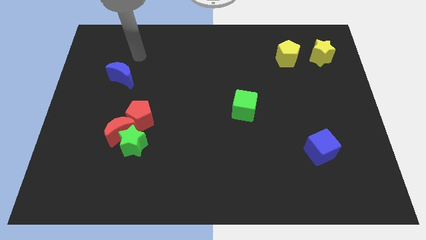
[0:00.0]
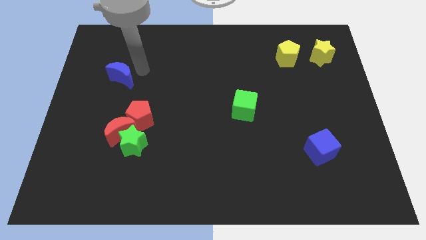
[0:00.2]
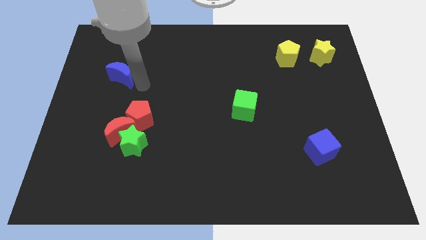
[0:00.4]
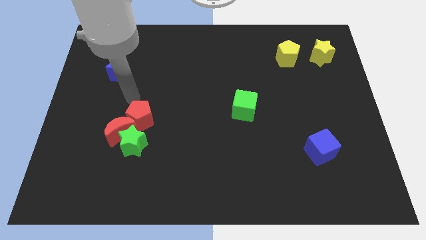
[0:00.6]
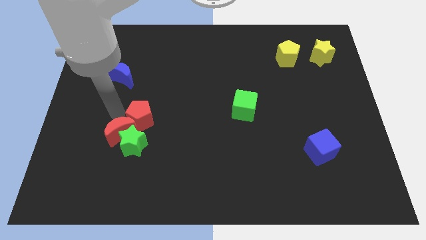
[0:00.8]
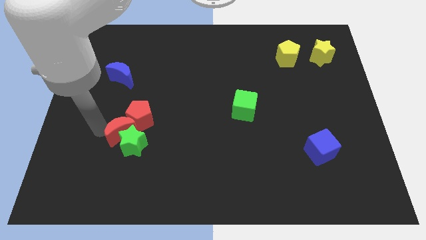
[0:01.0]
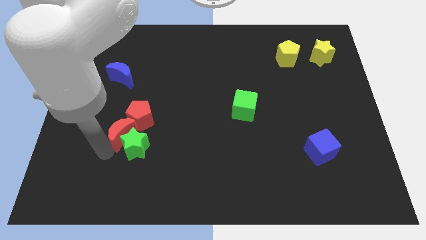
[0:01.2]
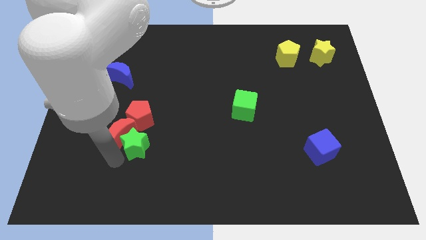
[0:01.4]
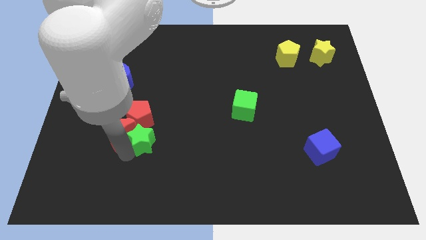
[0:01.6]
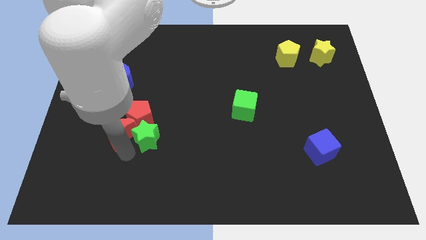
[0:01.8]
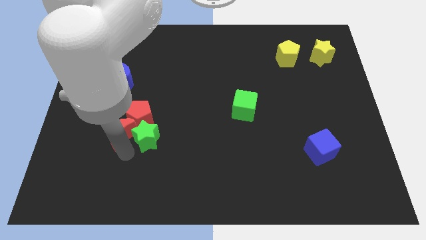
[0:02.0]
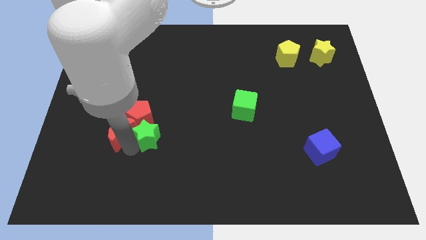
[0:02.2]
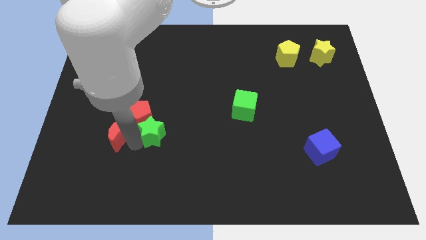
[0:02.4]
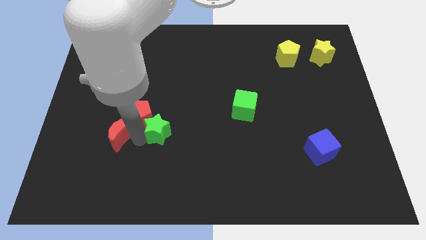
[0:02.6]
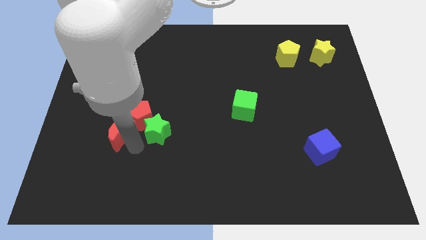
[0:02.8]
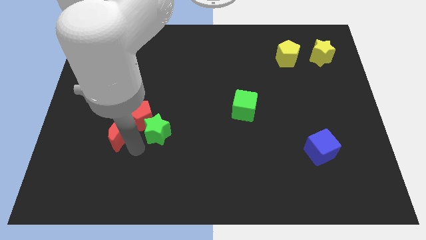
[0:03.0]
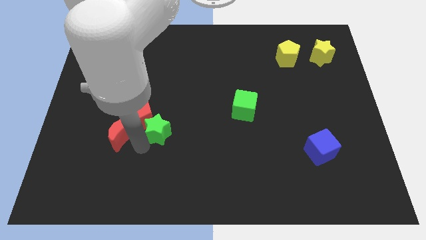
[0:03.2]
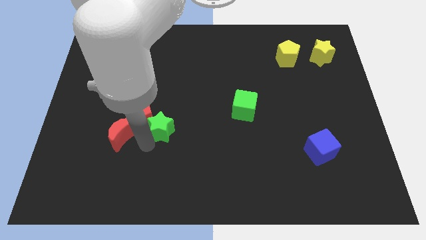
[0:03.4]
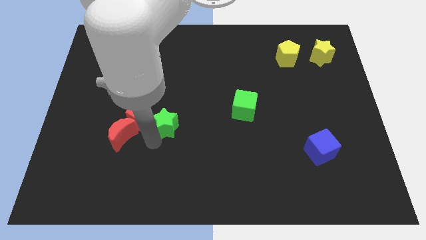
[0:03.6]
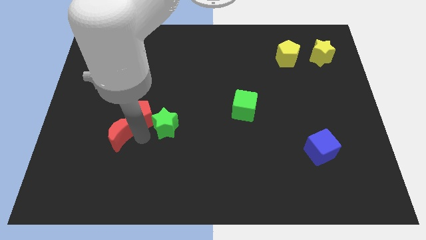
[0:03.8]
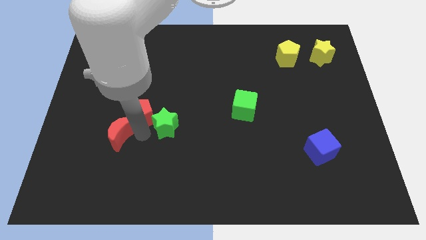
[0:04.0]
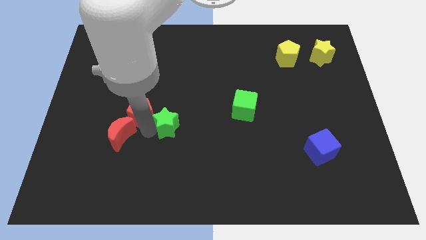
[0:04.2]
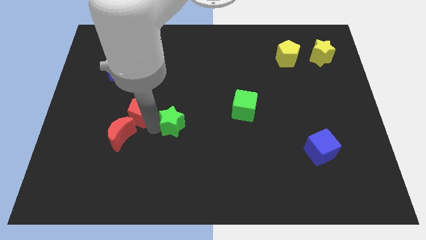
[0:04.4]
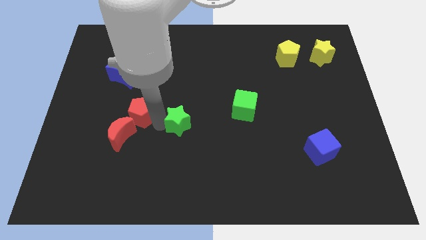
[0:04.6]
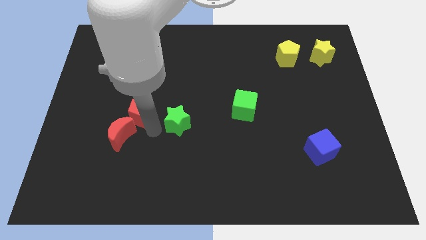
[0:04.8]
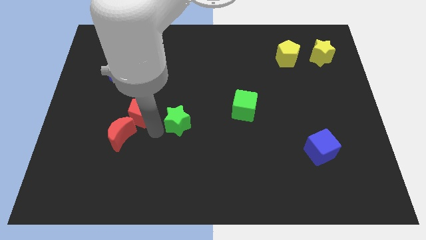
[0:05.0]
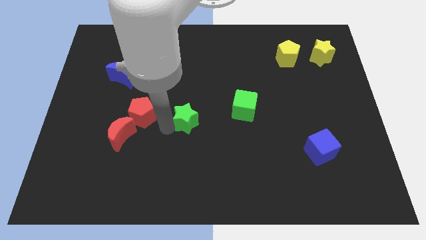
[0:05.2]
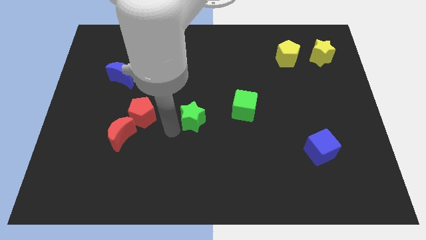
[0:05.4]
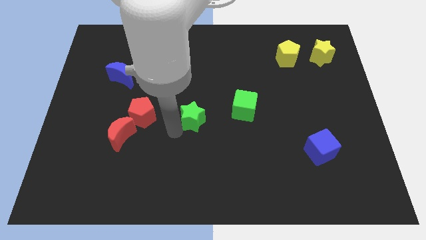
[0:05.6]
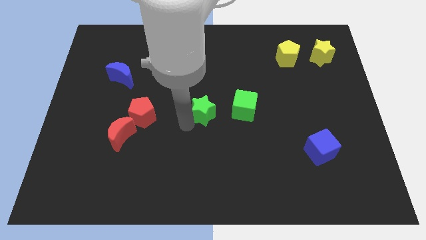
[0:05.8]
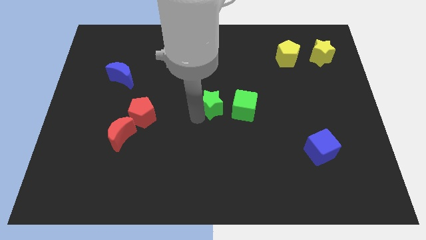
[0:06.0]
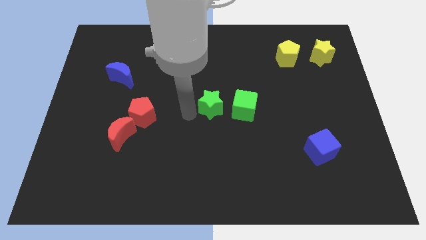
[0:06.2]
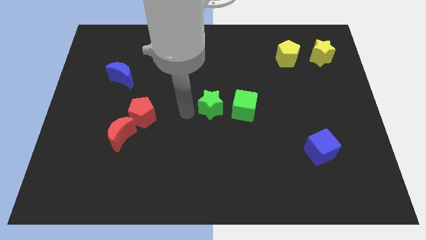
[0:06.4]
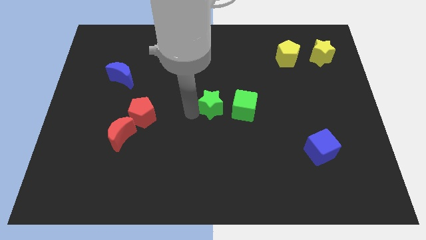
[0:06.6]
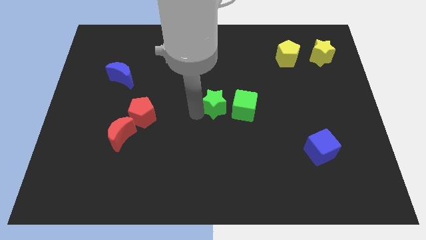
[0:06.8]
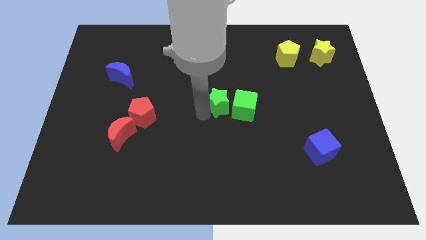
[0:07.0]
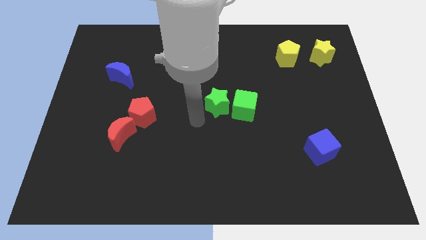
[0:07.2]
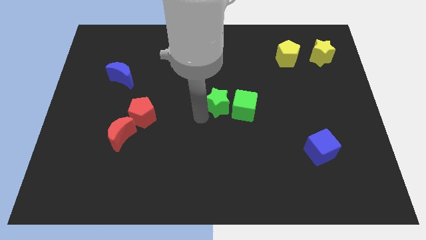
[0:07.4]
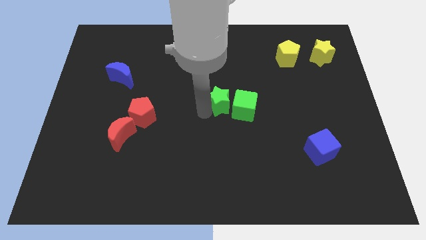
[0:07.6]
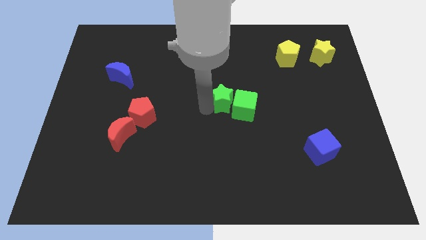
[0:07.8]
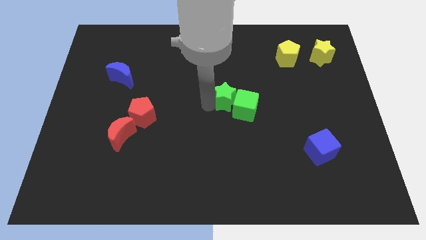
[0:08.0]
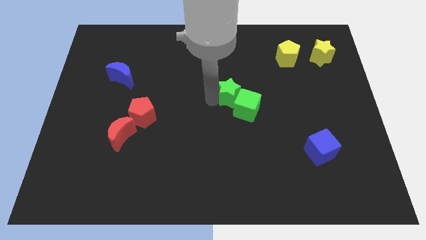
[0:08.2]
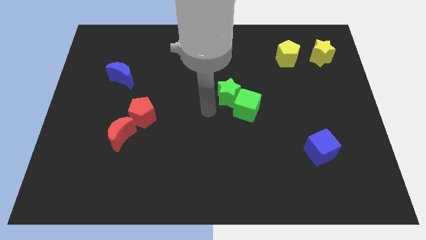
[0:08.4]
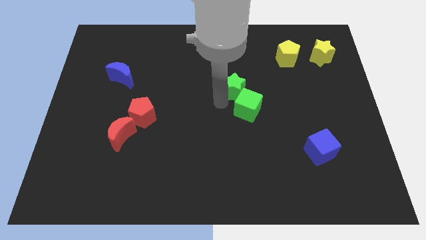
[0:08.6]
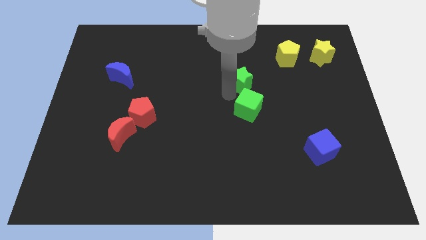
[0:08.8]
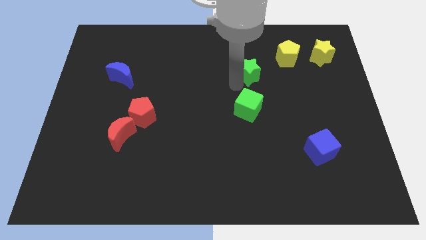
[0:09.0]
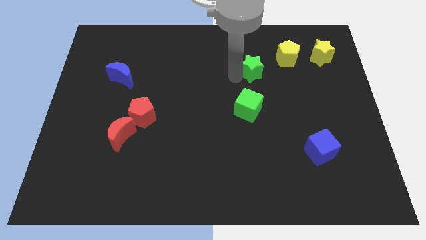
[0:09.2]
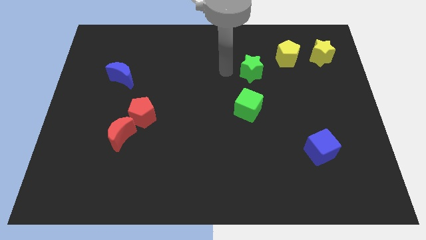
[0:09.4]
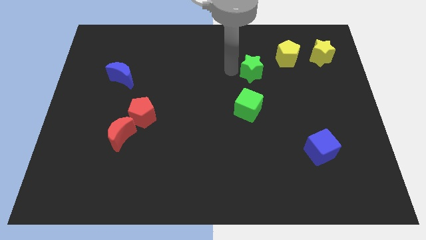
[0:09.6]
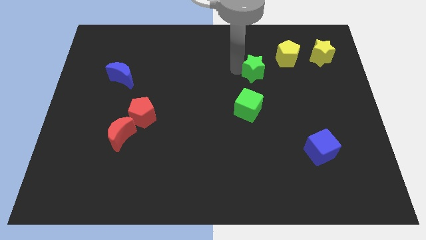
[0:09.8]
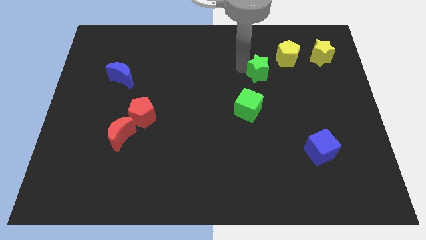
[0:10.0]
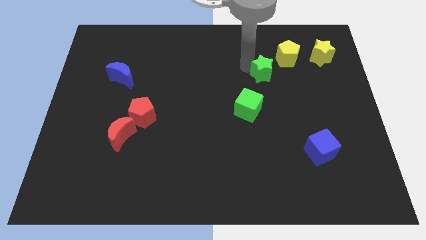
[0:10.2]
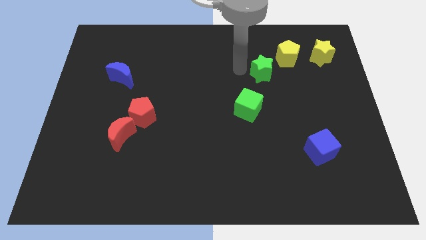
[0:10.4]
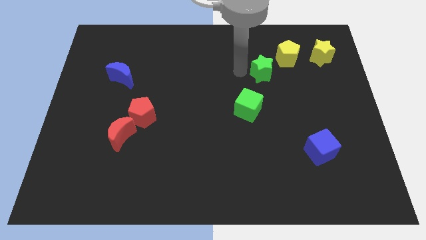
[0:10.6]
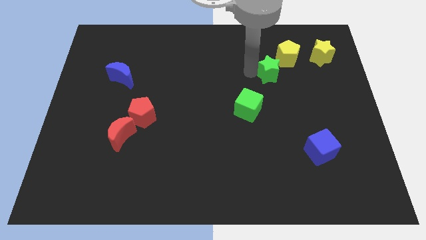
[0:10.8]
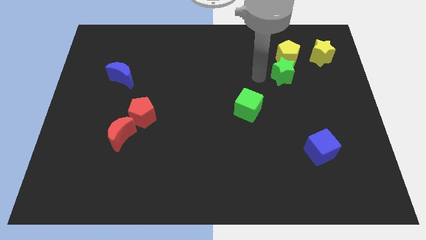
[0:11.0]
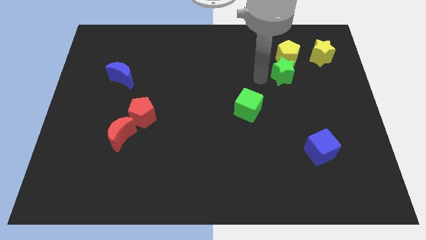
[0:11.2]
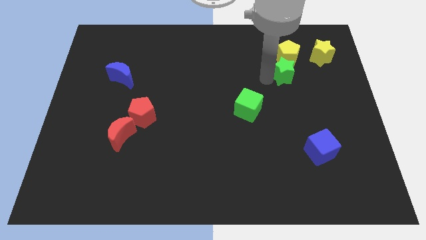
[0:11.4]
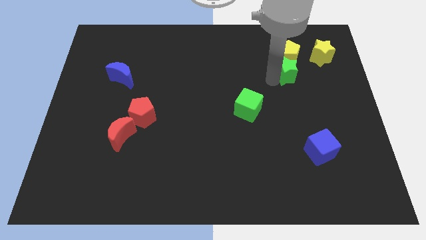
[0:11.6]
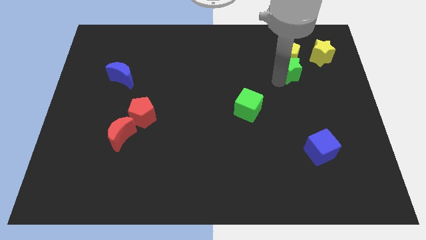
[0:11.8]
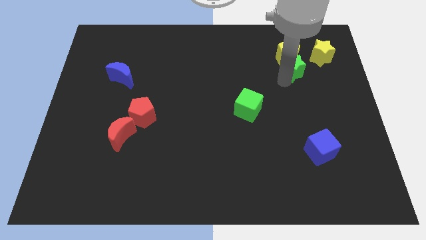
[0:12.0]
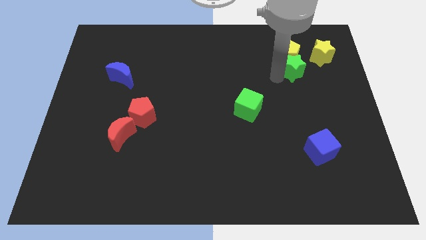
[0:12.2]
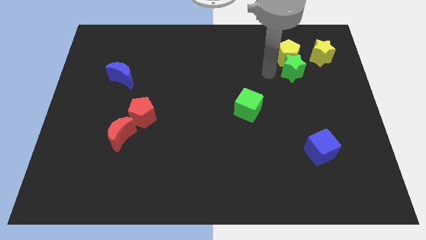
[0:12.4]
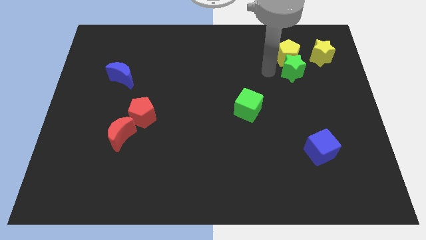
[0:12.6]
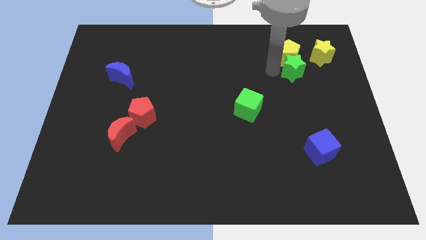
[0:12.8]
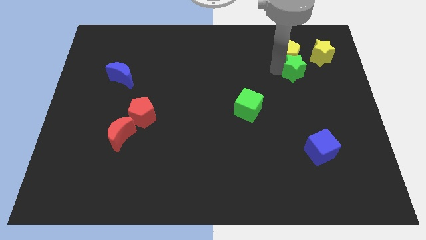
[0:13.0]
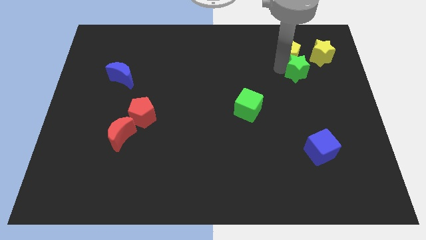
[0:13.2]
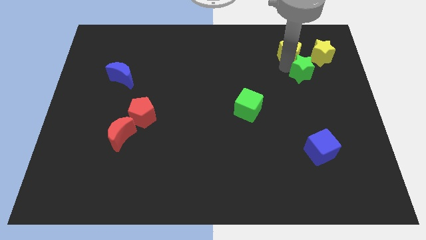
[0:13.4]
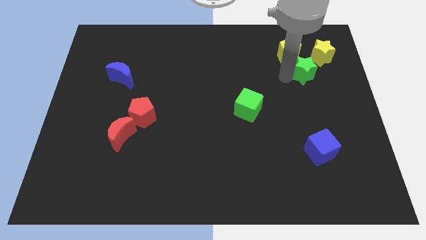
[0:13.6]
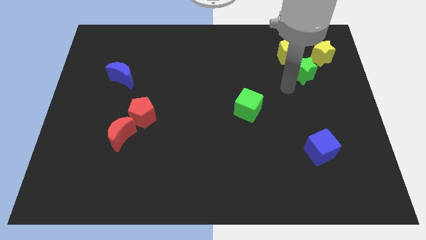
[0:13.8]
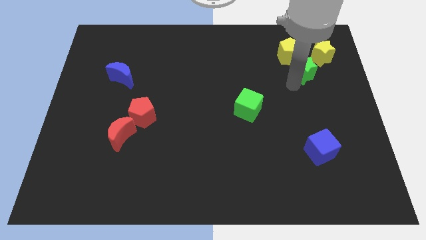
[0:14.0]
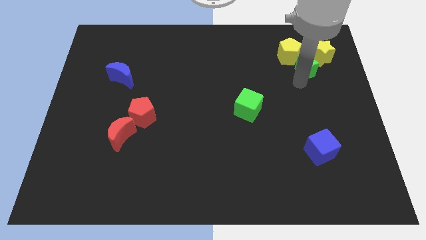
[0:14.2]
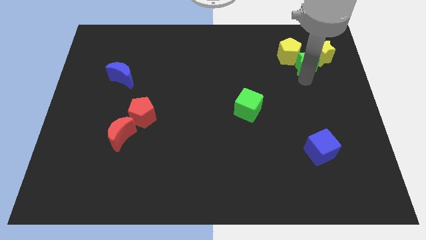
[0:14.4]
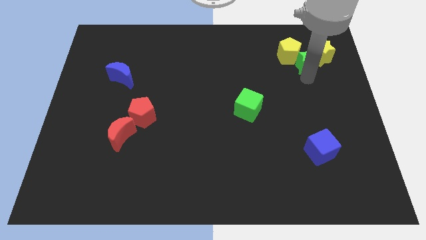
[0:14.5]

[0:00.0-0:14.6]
move the green star to the yellow star
